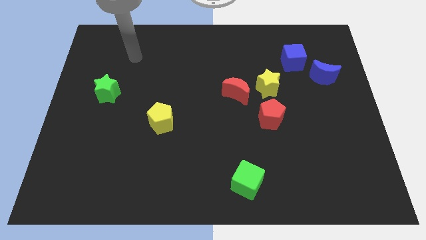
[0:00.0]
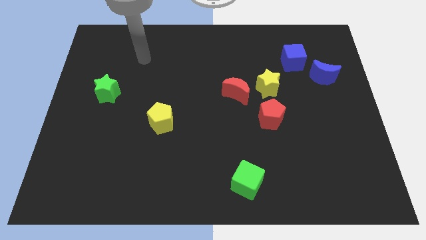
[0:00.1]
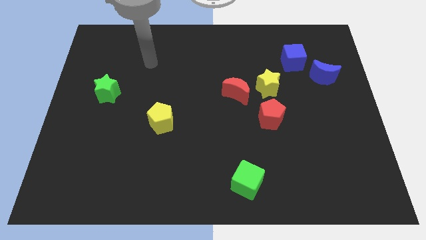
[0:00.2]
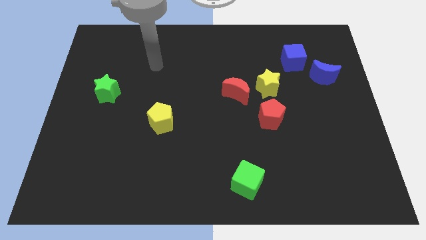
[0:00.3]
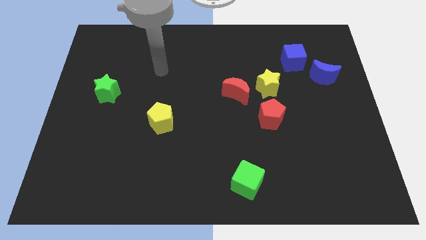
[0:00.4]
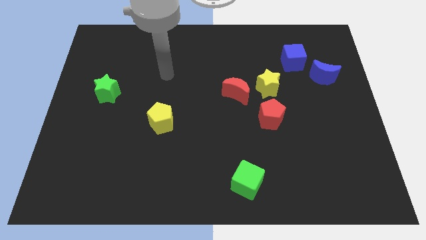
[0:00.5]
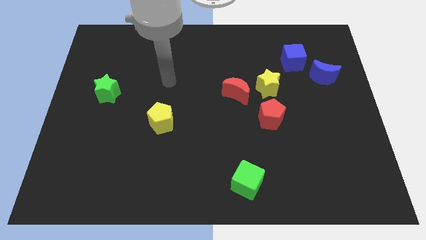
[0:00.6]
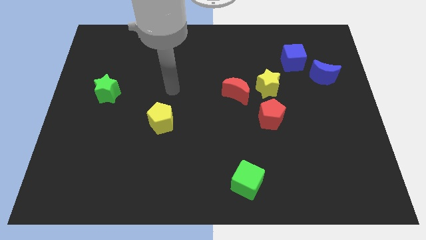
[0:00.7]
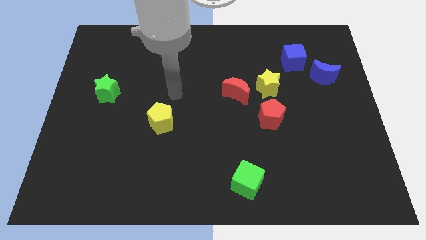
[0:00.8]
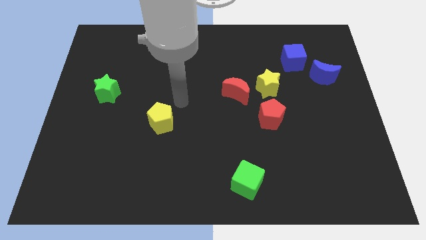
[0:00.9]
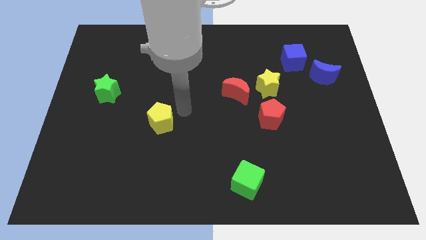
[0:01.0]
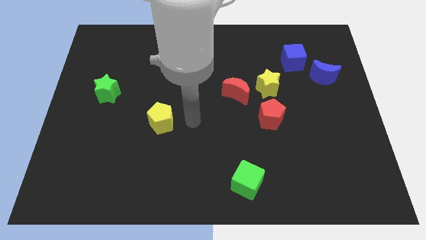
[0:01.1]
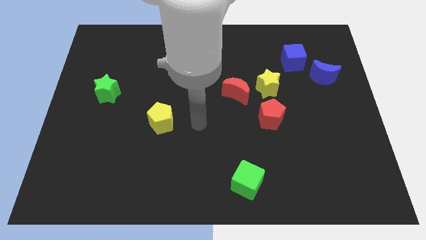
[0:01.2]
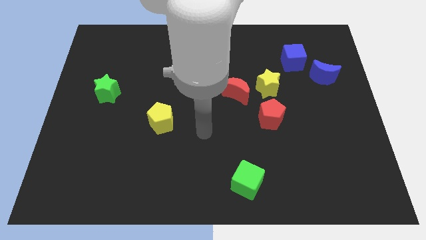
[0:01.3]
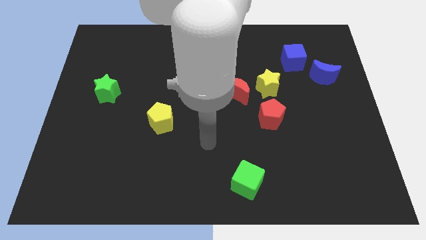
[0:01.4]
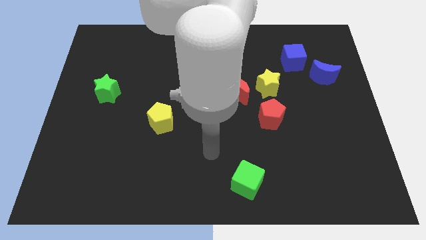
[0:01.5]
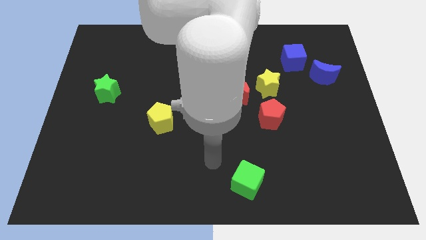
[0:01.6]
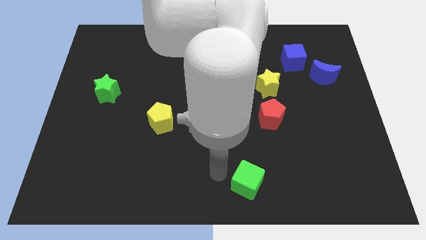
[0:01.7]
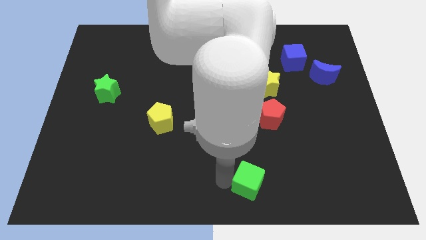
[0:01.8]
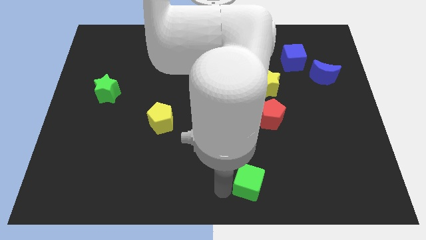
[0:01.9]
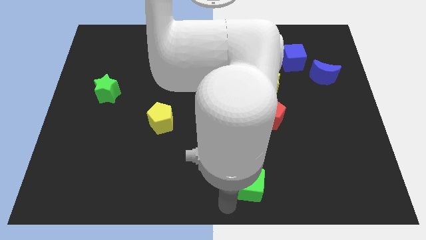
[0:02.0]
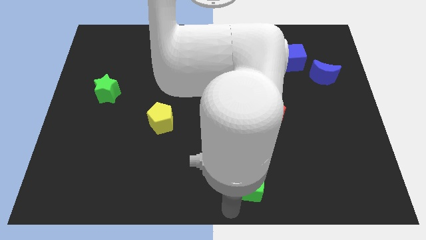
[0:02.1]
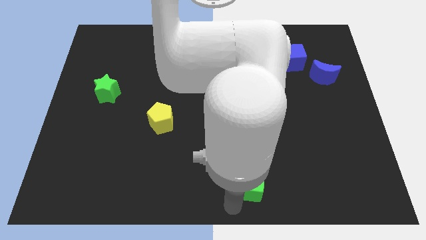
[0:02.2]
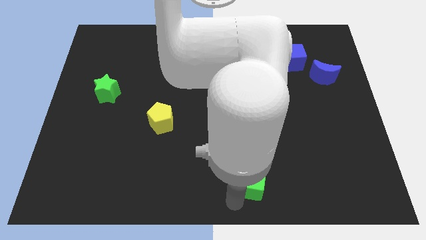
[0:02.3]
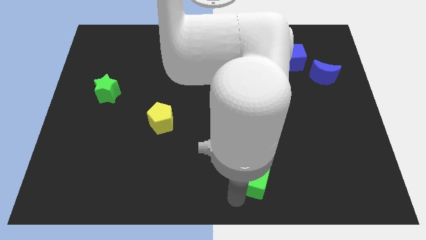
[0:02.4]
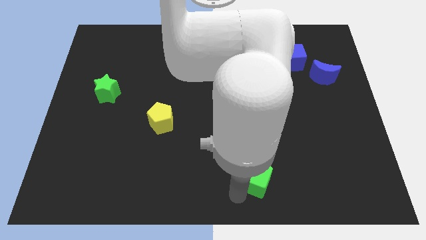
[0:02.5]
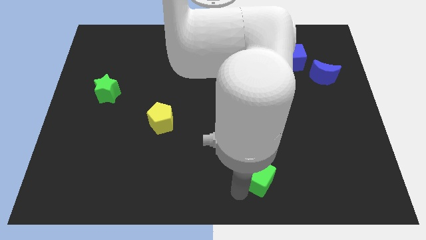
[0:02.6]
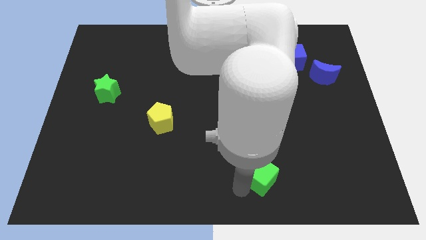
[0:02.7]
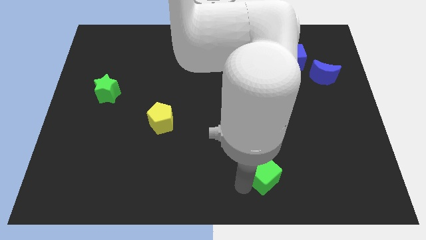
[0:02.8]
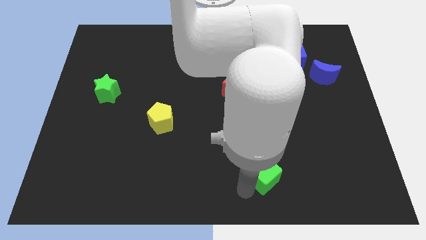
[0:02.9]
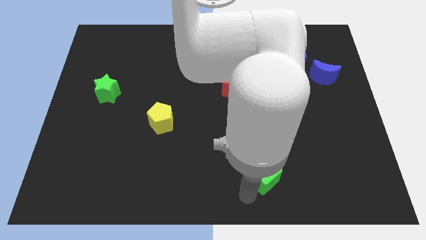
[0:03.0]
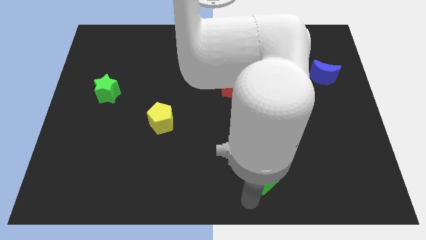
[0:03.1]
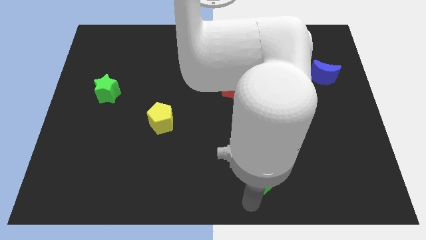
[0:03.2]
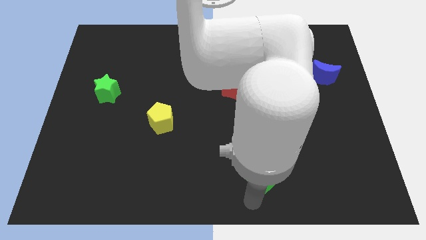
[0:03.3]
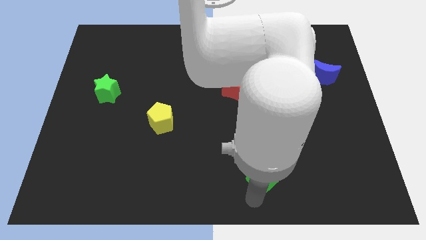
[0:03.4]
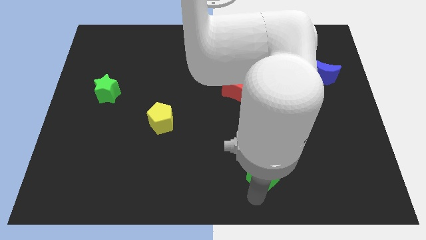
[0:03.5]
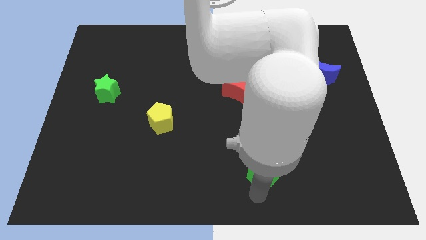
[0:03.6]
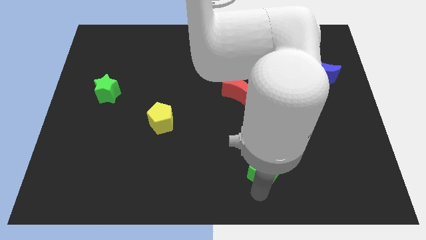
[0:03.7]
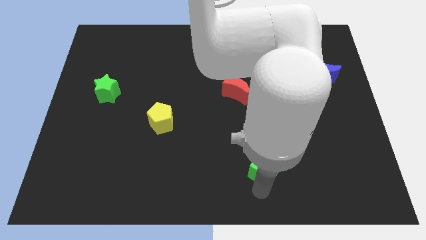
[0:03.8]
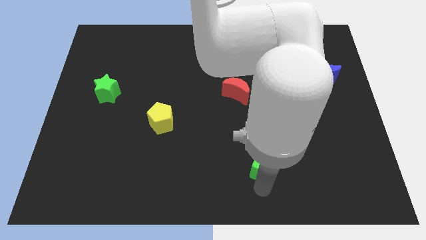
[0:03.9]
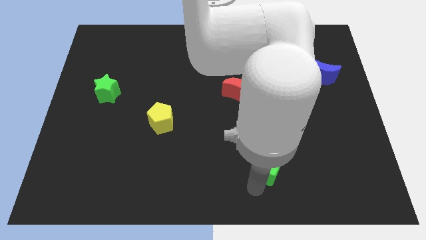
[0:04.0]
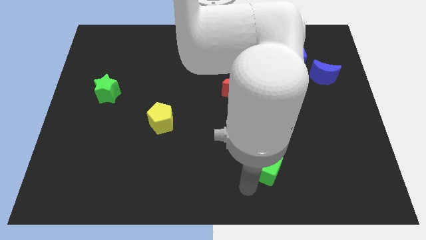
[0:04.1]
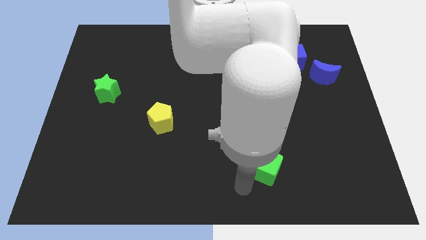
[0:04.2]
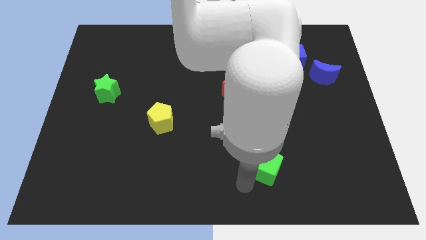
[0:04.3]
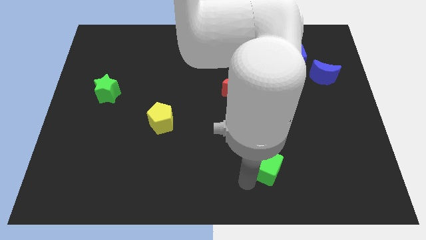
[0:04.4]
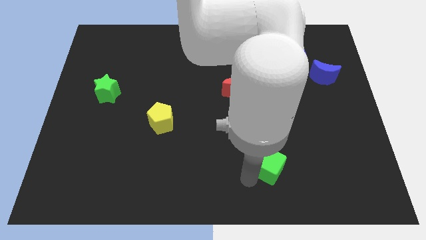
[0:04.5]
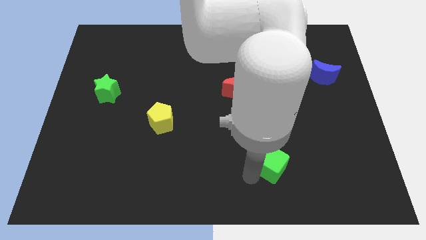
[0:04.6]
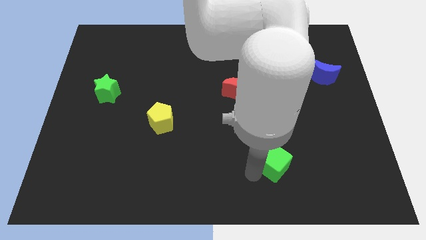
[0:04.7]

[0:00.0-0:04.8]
push the green cube diagonally up and to the right a little

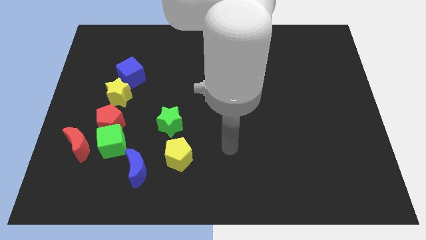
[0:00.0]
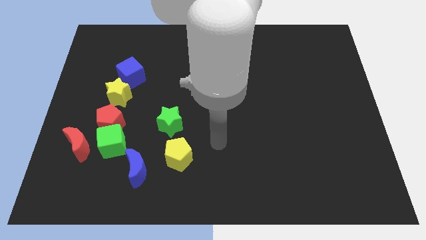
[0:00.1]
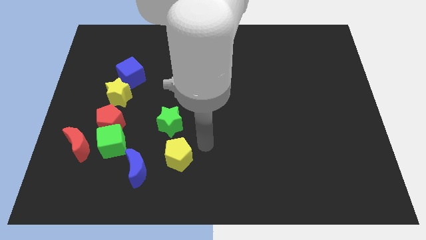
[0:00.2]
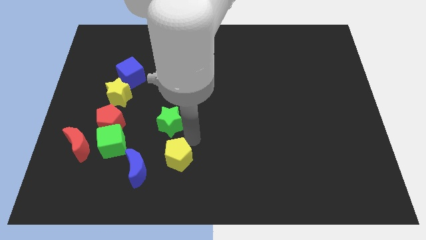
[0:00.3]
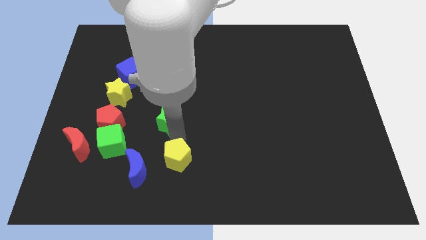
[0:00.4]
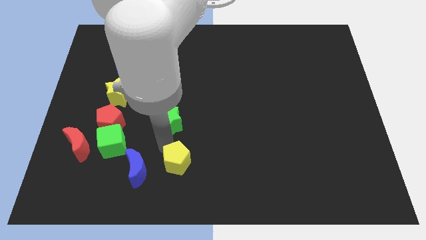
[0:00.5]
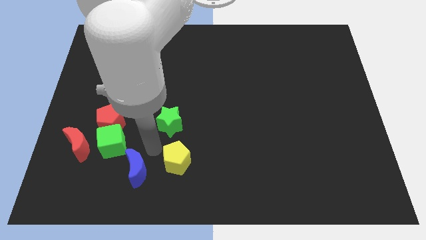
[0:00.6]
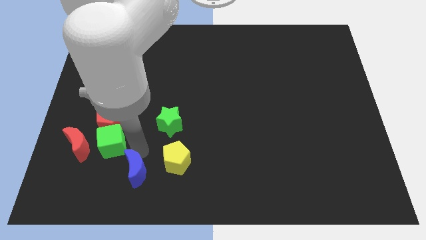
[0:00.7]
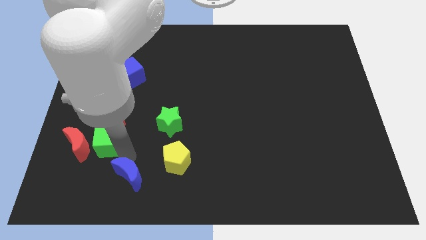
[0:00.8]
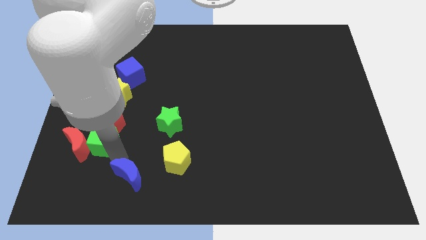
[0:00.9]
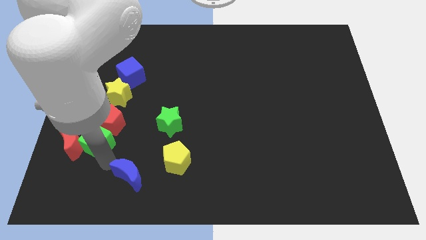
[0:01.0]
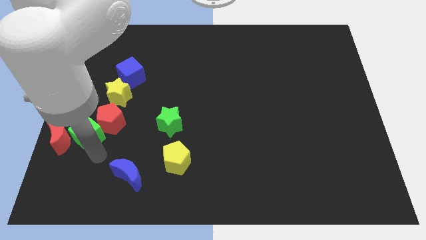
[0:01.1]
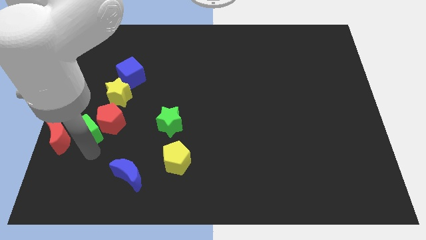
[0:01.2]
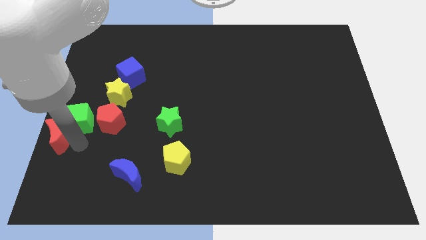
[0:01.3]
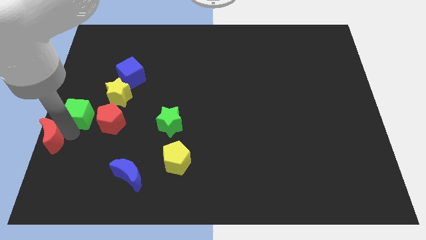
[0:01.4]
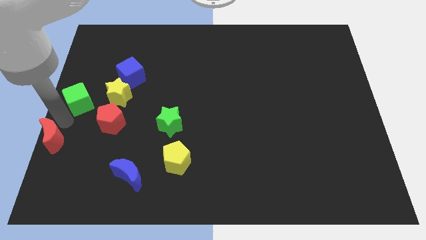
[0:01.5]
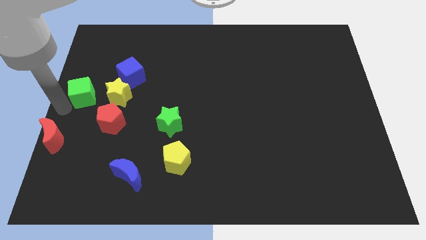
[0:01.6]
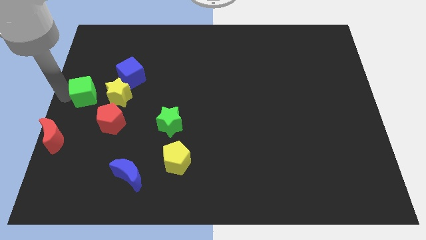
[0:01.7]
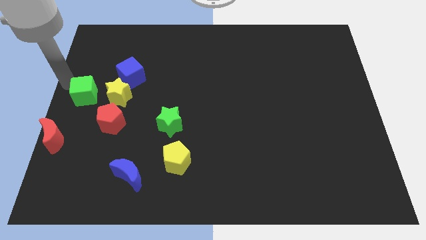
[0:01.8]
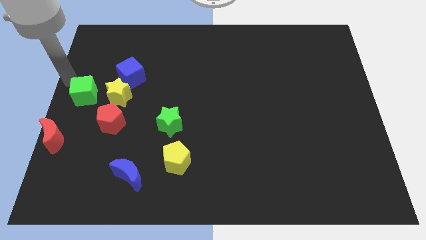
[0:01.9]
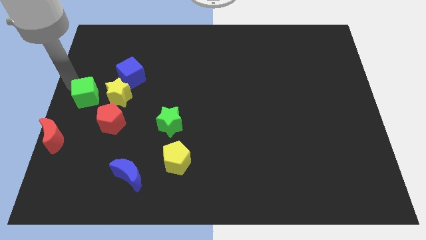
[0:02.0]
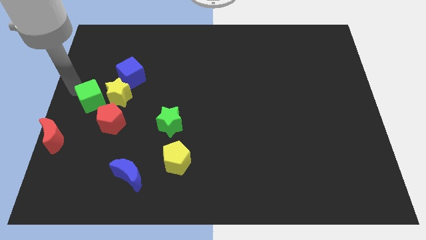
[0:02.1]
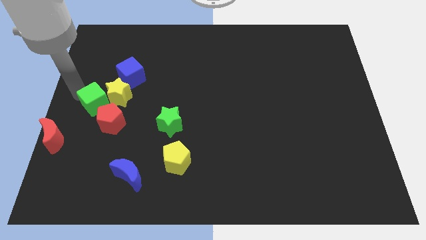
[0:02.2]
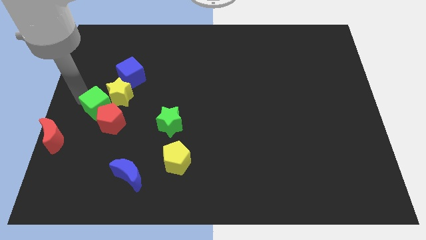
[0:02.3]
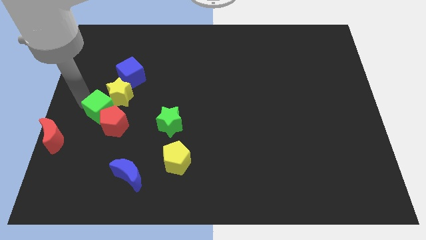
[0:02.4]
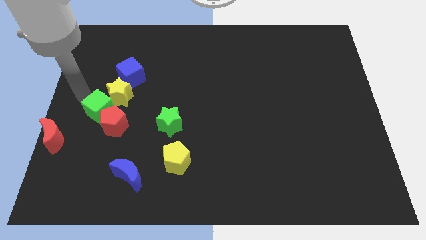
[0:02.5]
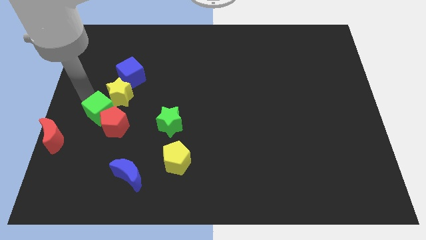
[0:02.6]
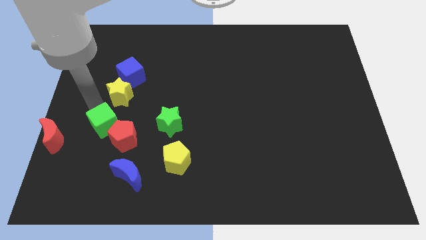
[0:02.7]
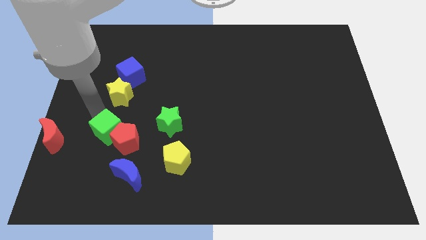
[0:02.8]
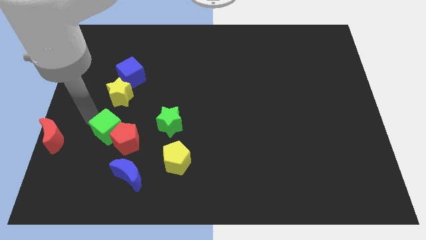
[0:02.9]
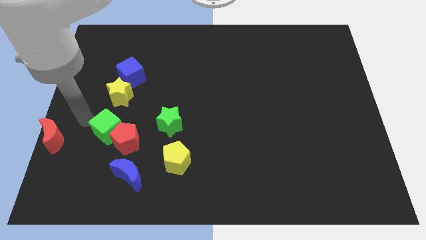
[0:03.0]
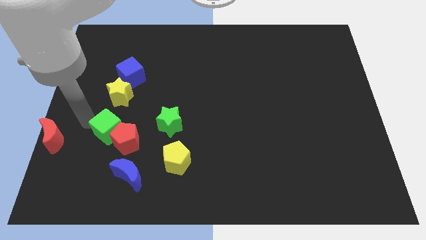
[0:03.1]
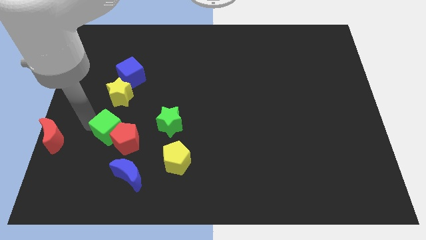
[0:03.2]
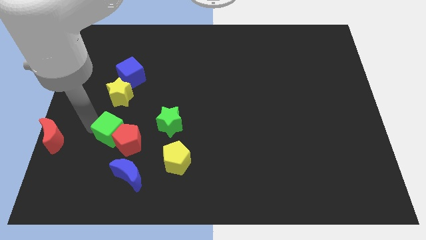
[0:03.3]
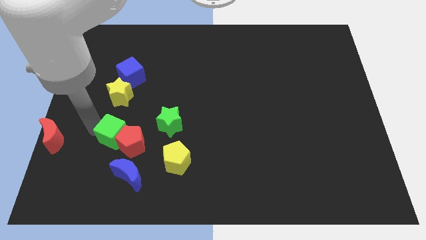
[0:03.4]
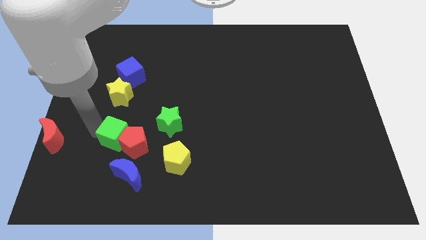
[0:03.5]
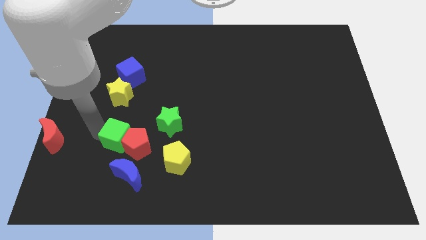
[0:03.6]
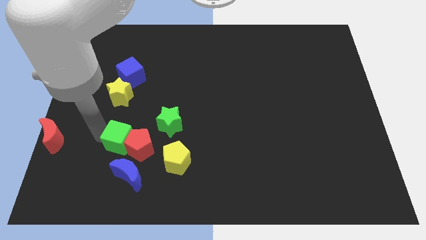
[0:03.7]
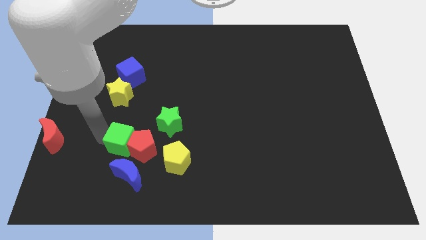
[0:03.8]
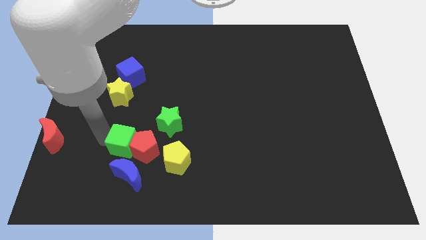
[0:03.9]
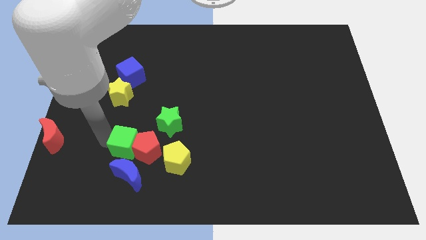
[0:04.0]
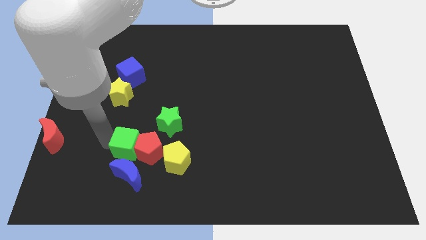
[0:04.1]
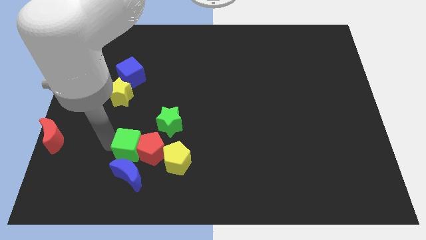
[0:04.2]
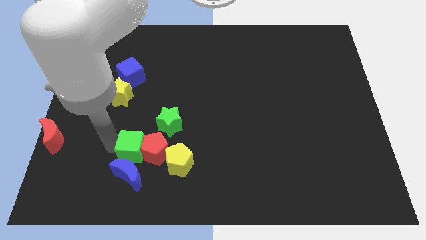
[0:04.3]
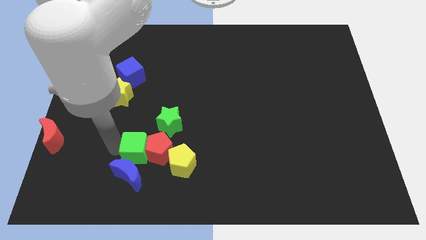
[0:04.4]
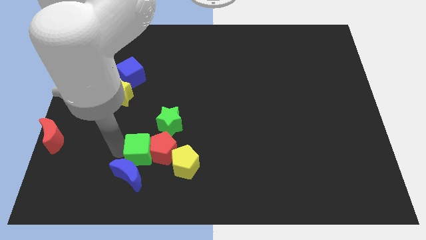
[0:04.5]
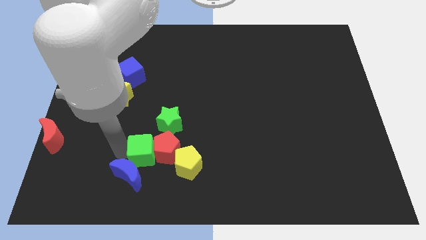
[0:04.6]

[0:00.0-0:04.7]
slightly push the green cube to the right
